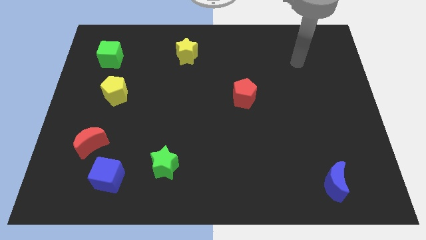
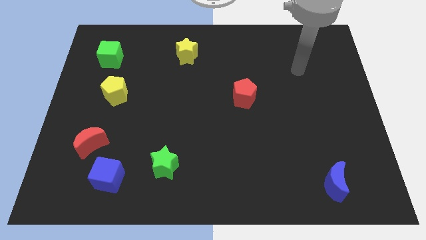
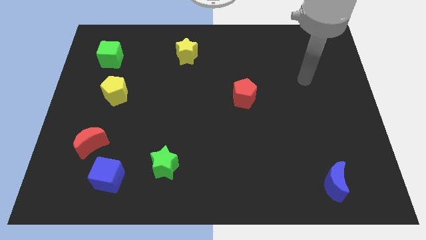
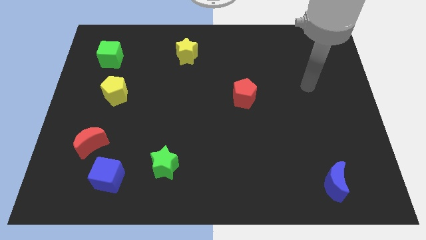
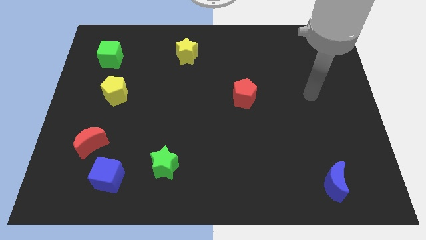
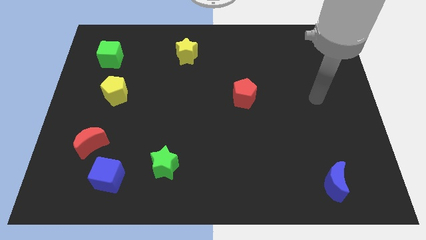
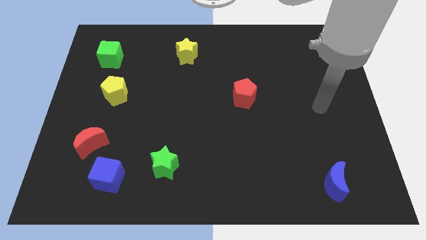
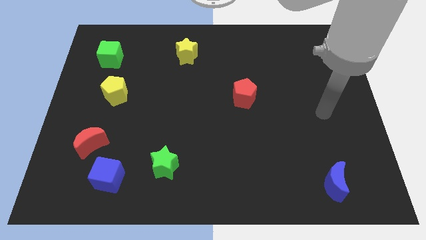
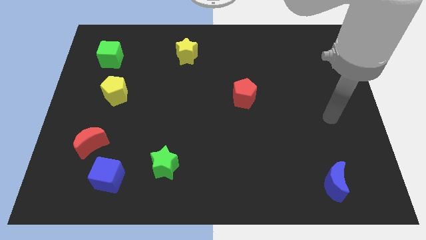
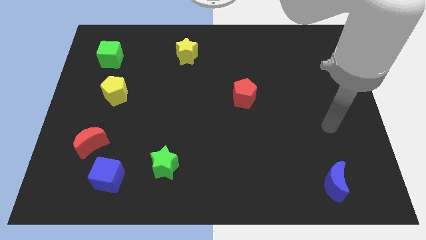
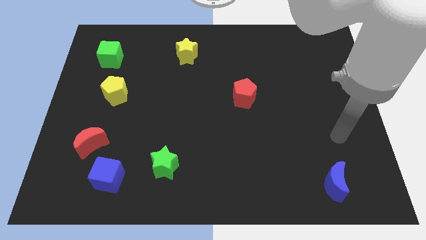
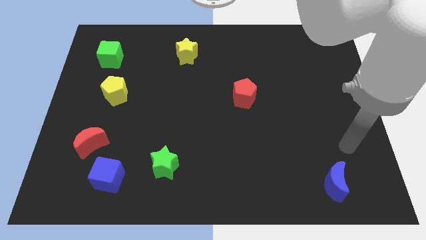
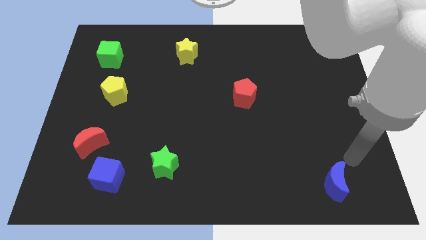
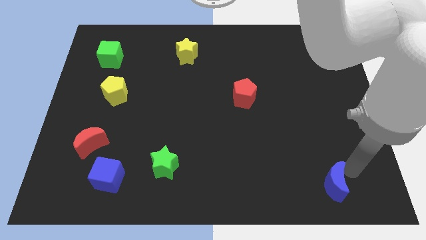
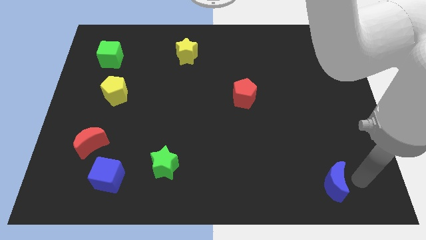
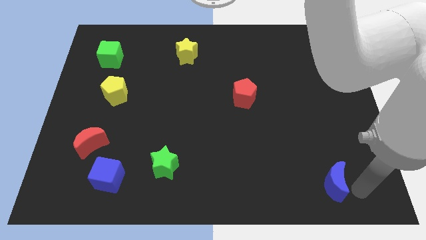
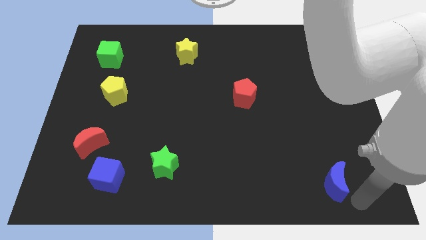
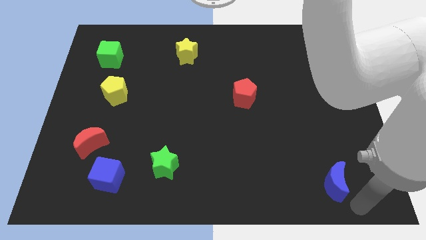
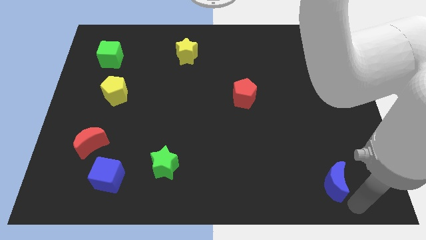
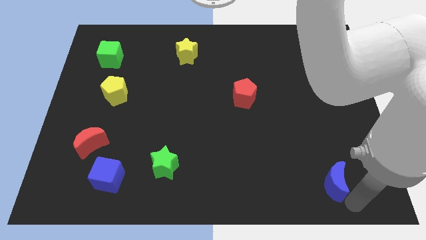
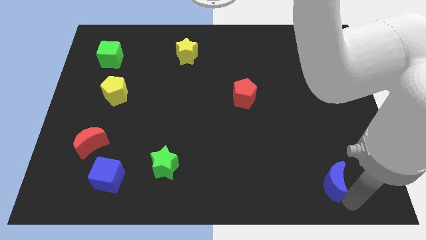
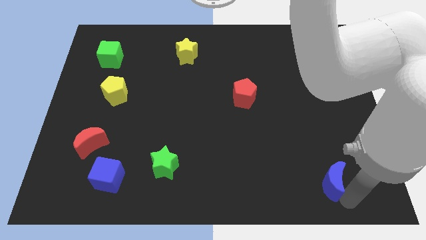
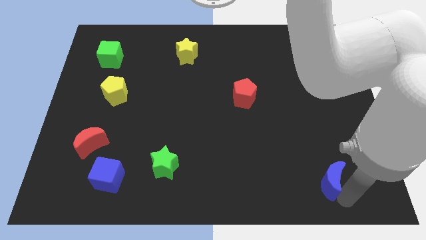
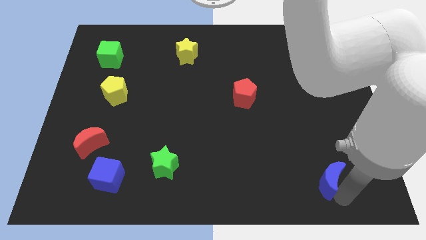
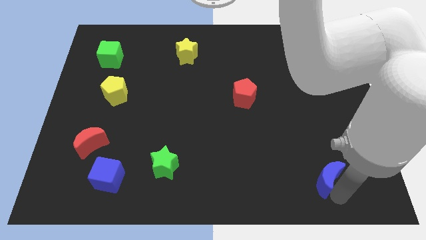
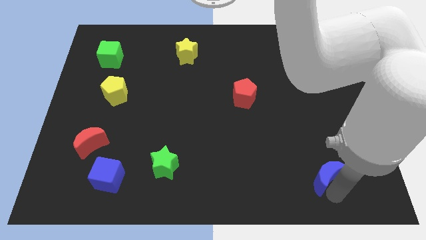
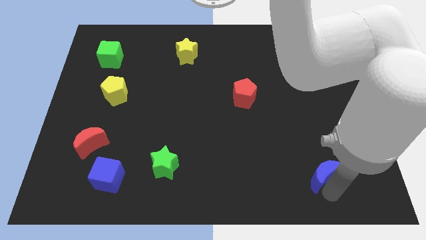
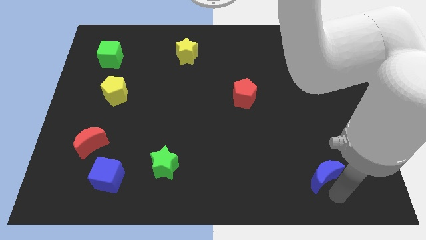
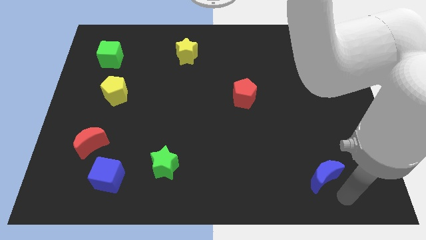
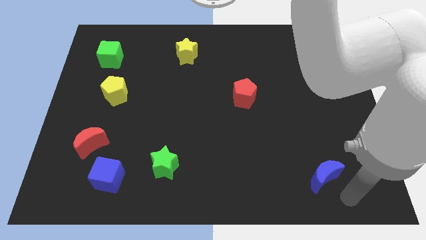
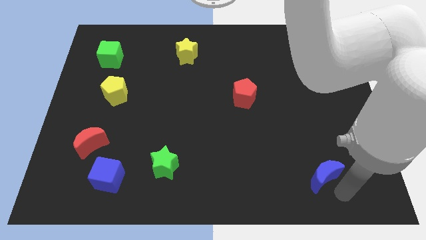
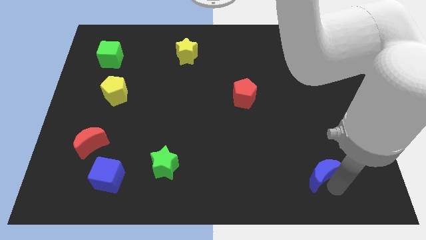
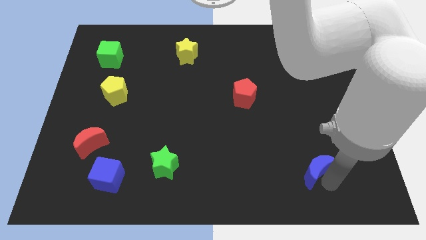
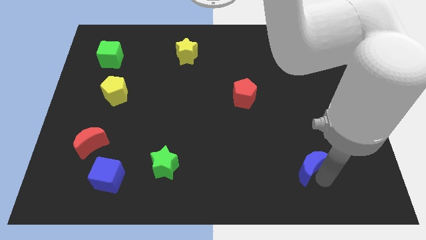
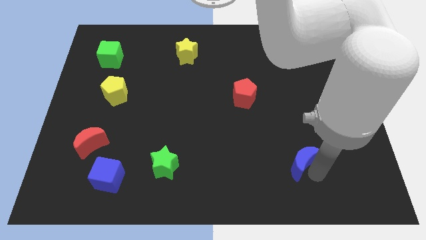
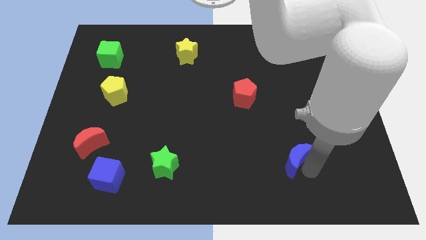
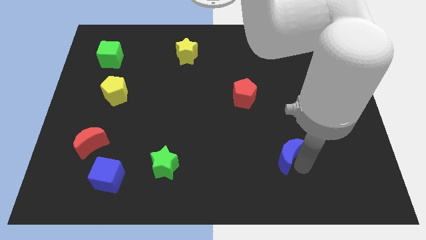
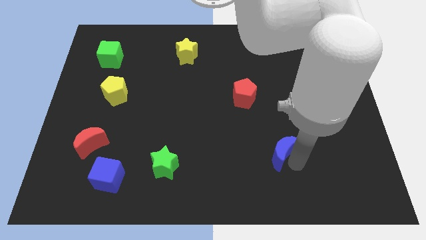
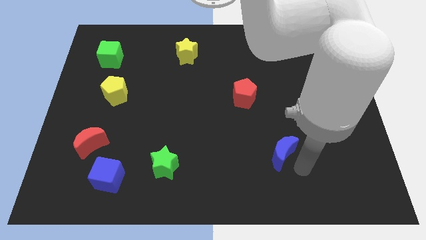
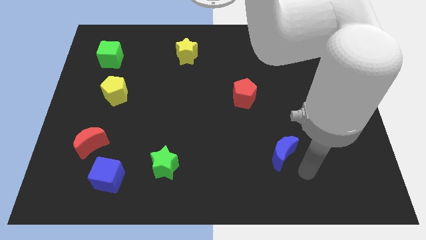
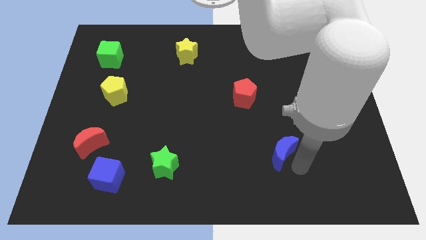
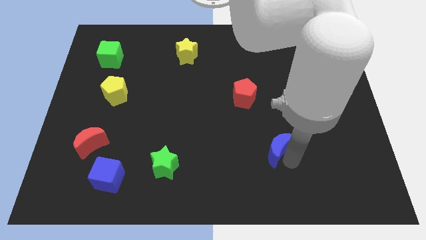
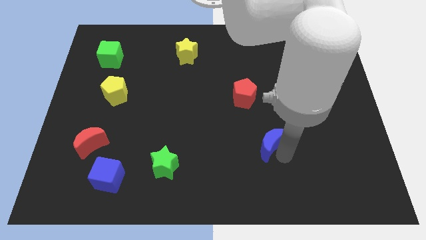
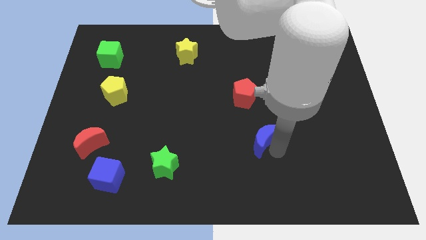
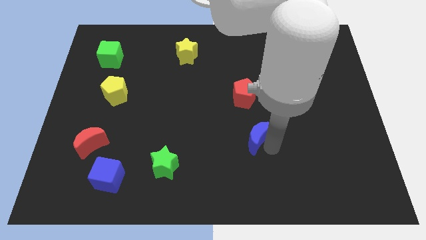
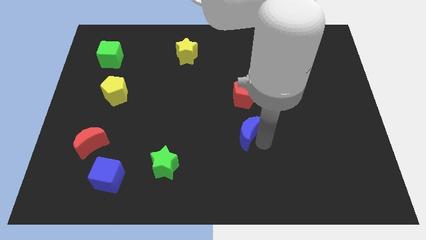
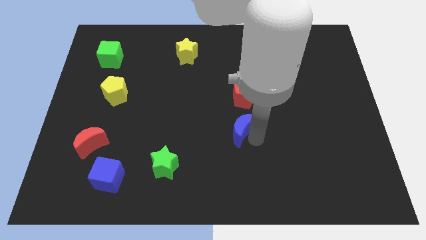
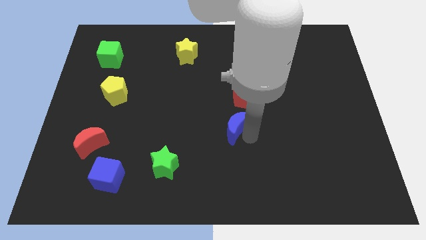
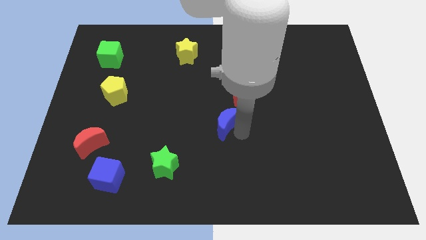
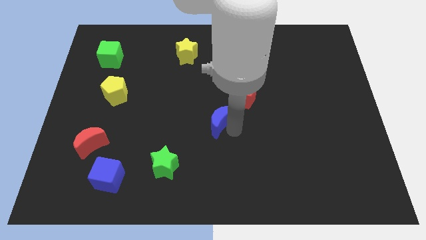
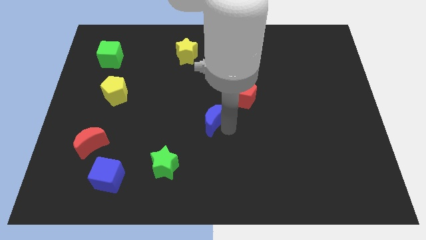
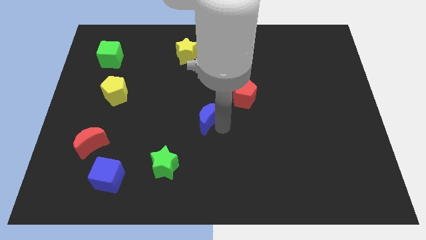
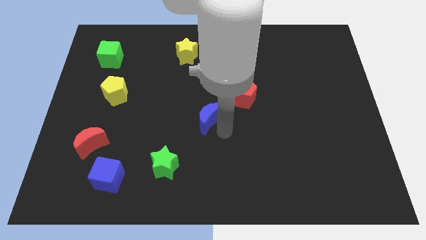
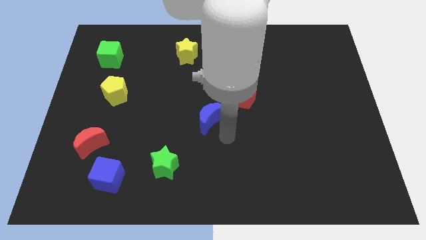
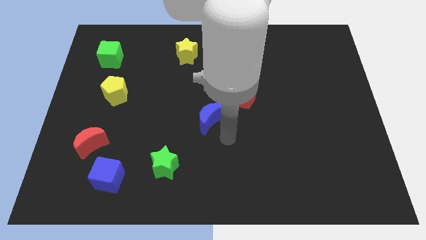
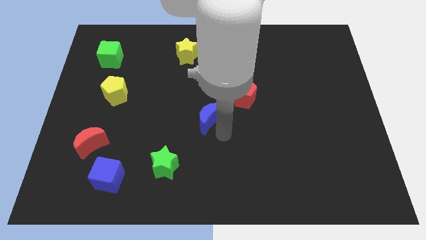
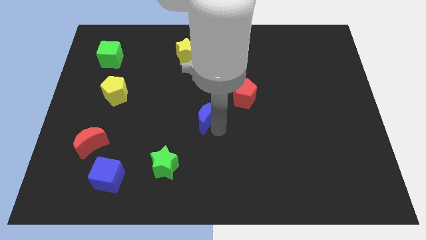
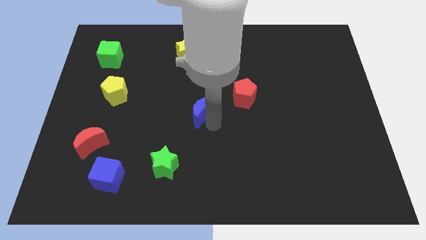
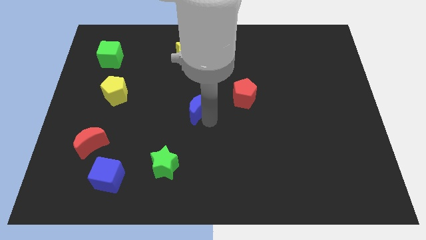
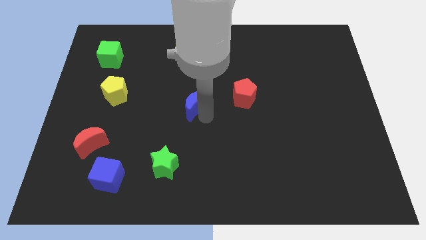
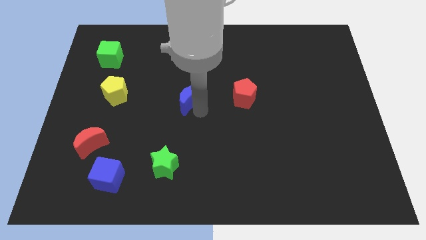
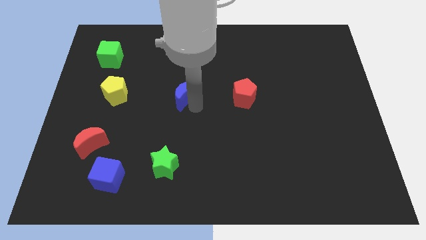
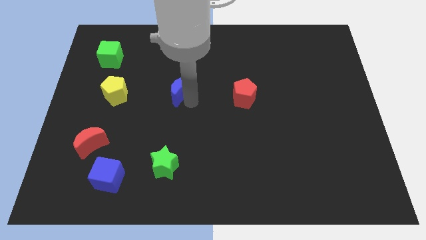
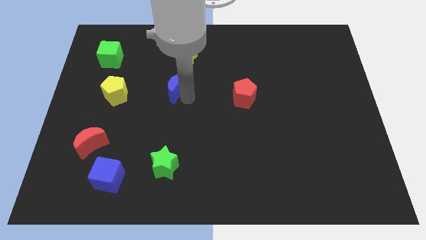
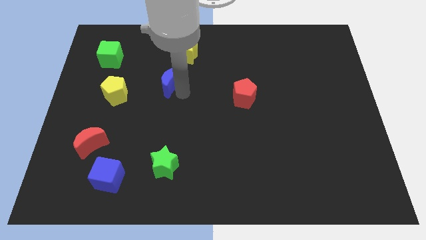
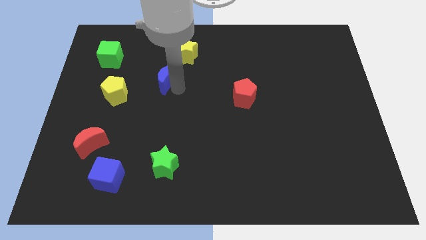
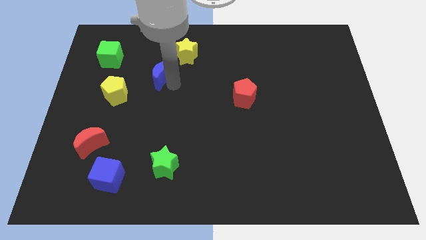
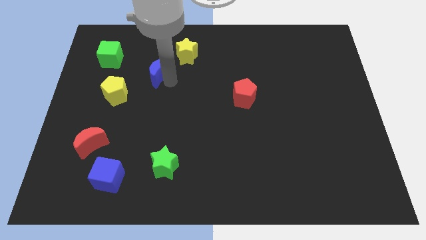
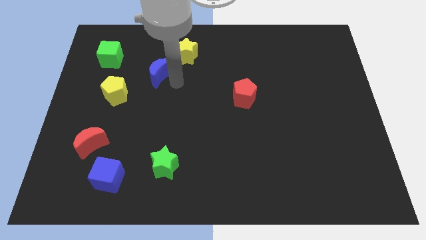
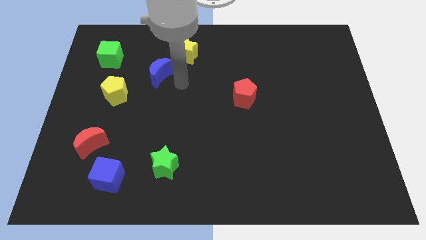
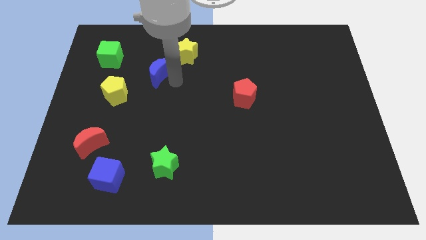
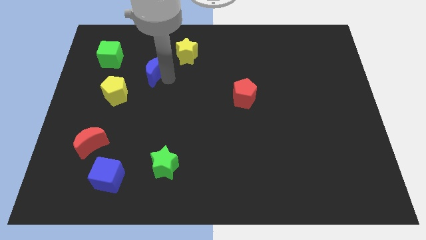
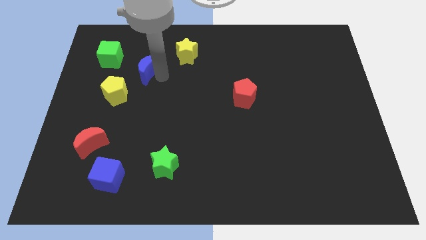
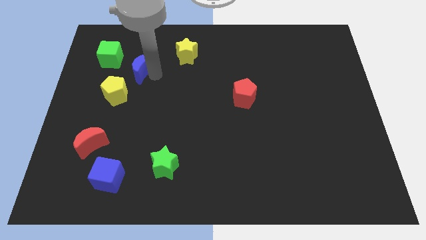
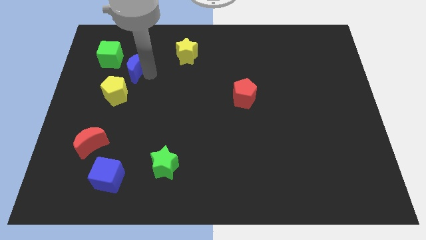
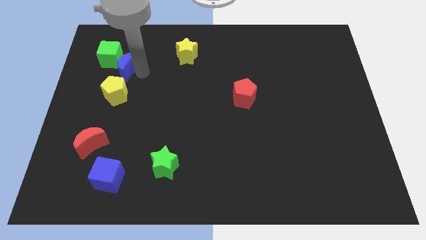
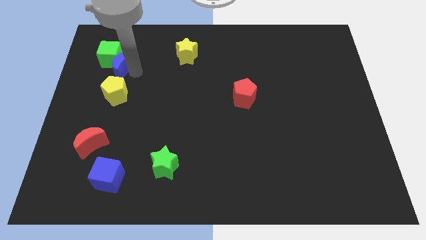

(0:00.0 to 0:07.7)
move the blue moon to the green cube
